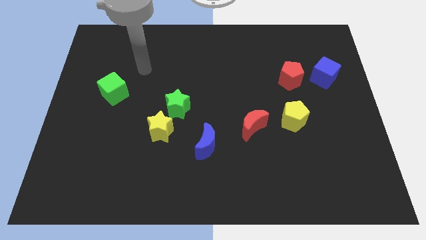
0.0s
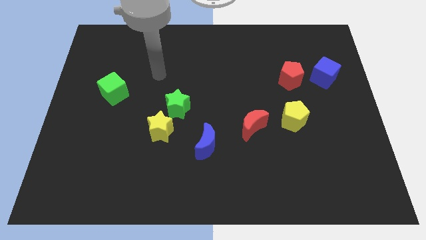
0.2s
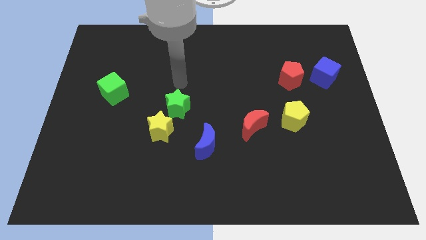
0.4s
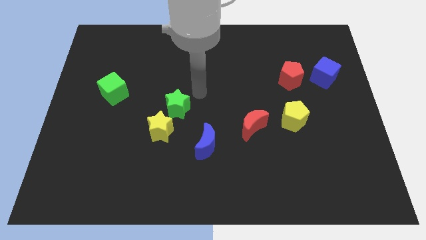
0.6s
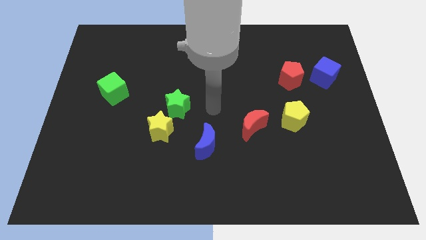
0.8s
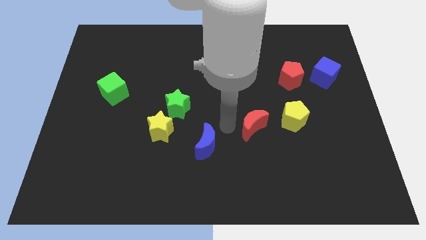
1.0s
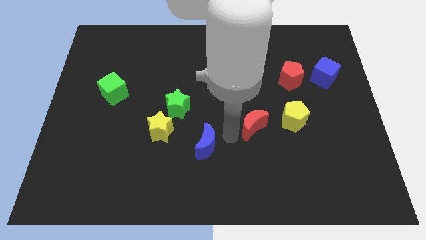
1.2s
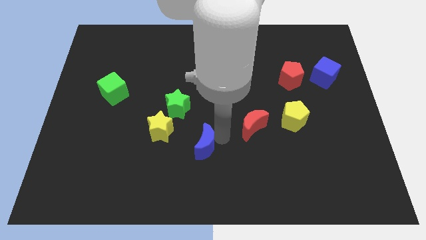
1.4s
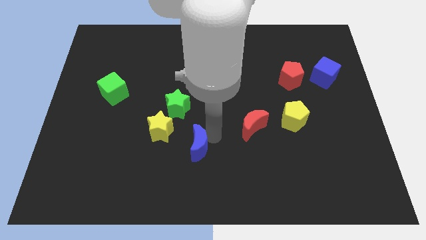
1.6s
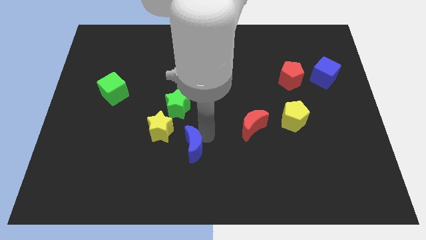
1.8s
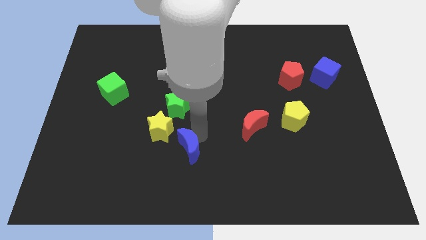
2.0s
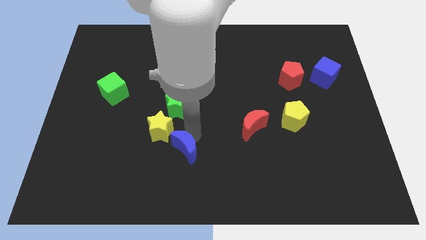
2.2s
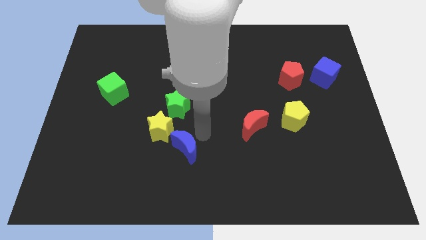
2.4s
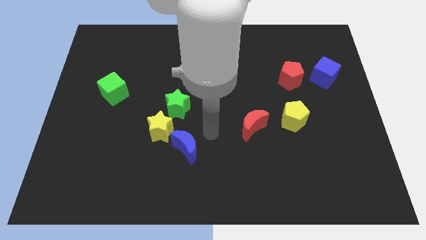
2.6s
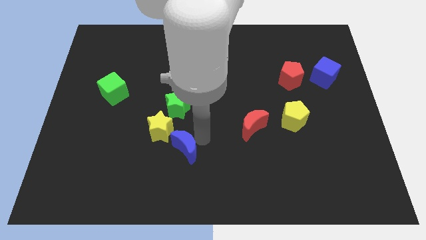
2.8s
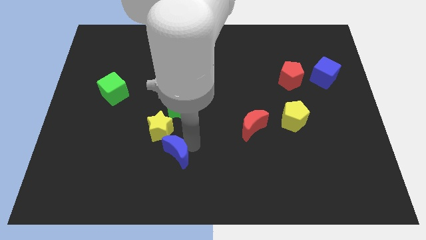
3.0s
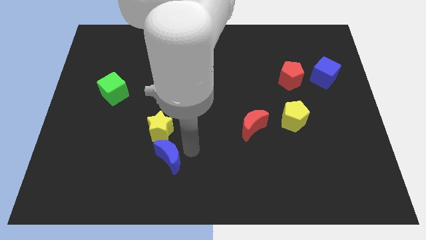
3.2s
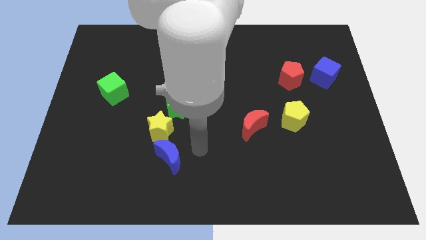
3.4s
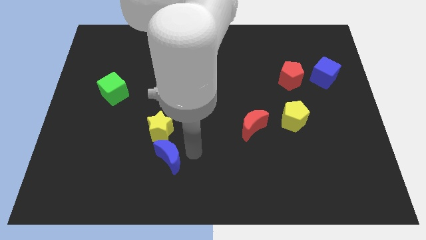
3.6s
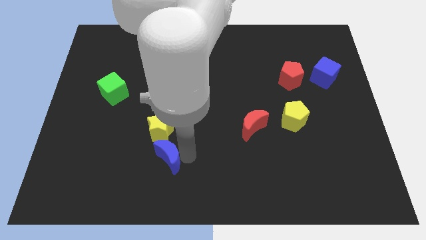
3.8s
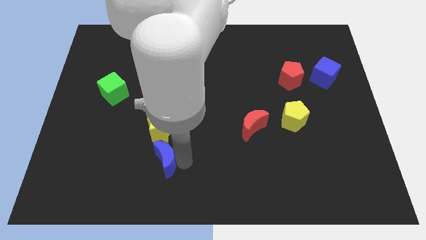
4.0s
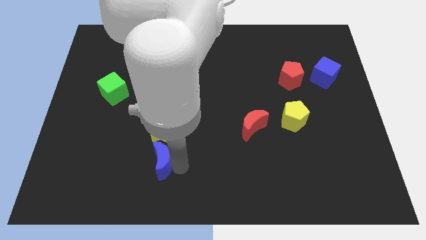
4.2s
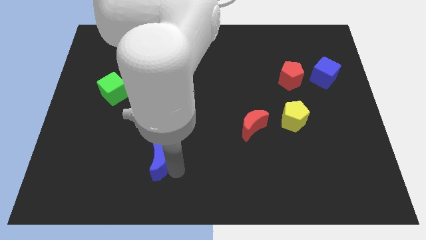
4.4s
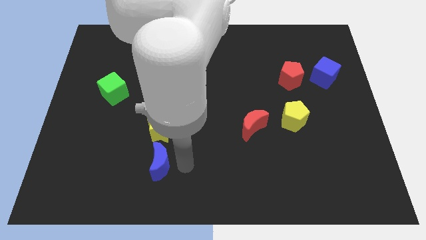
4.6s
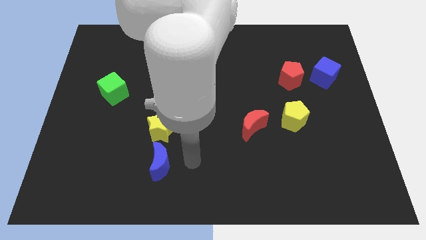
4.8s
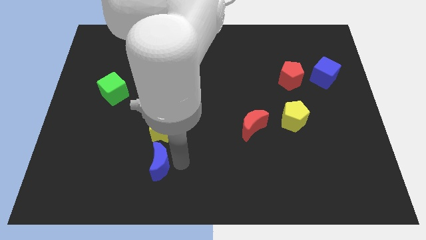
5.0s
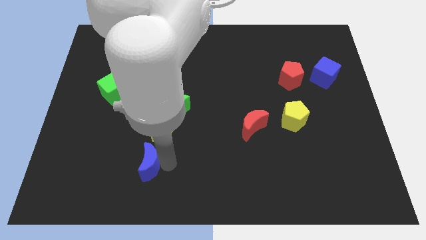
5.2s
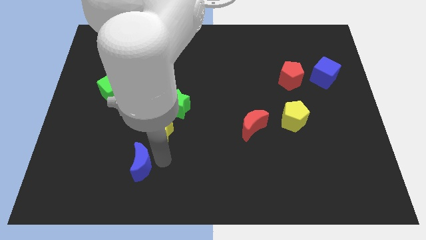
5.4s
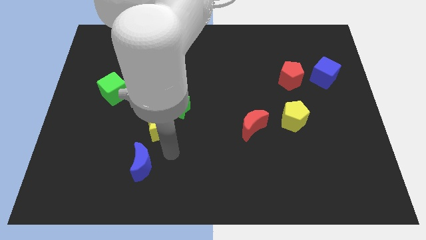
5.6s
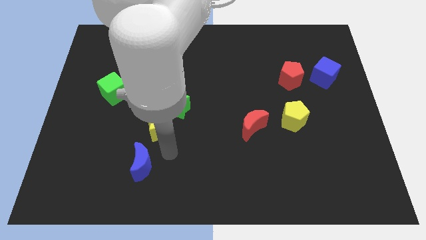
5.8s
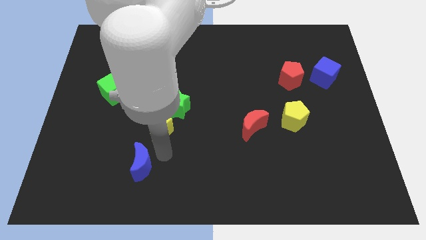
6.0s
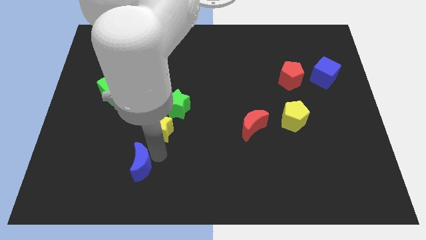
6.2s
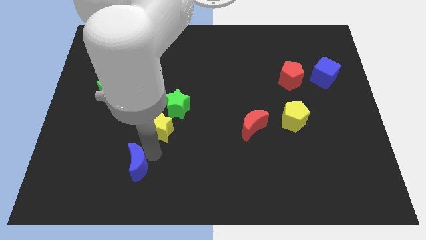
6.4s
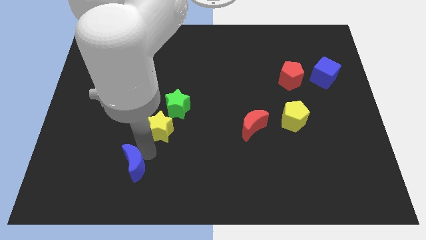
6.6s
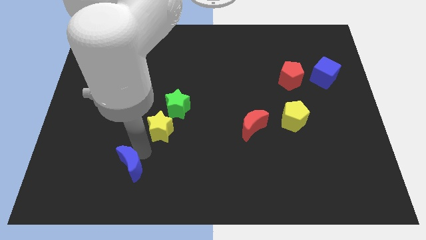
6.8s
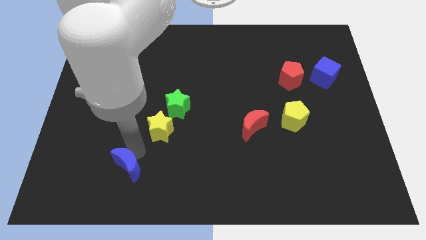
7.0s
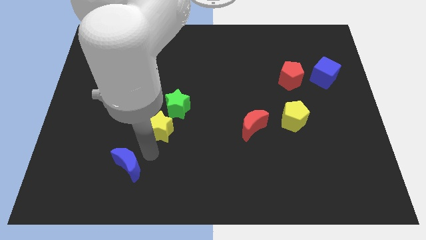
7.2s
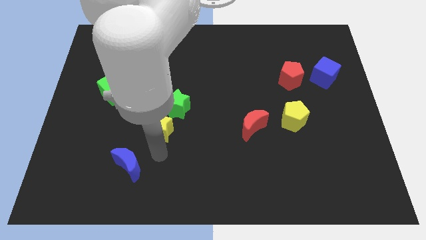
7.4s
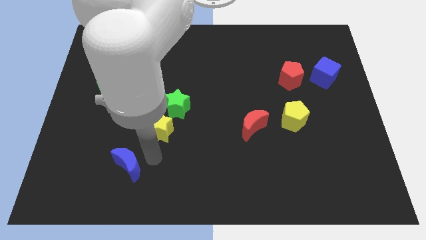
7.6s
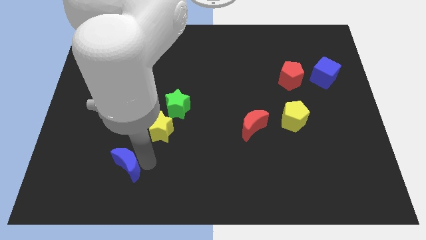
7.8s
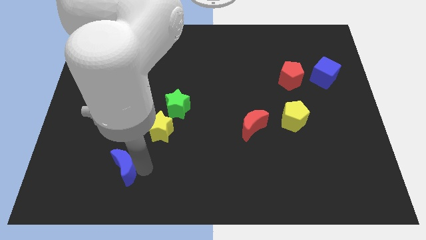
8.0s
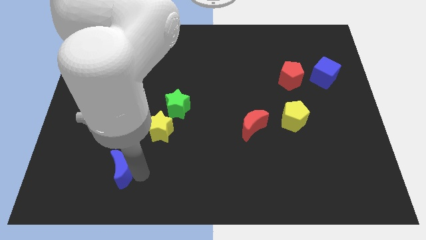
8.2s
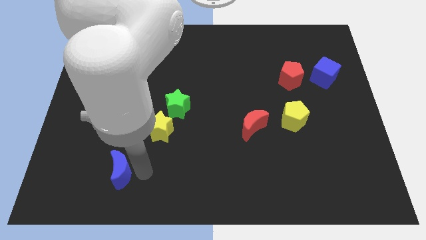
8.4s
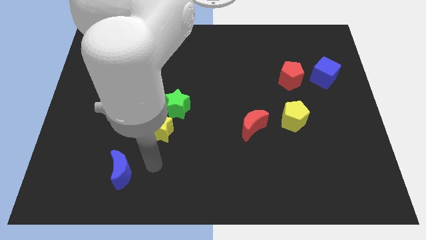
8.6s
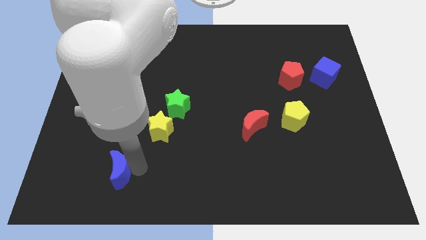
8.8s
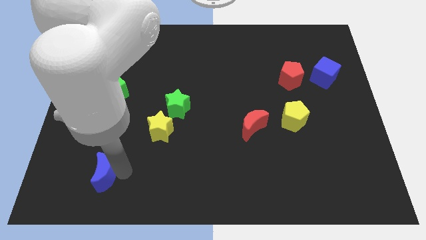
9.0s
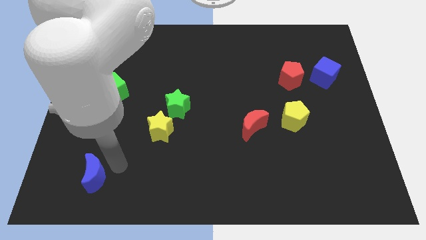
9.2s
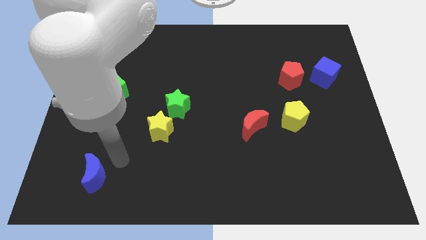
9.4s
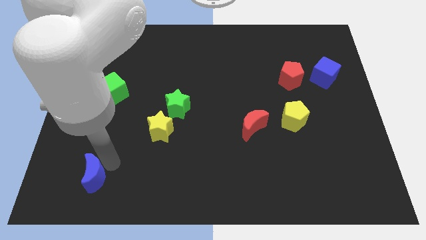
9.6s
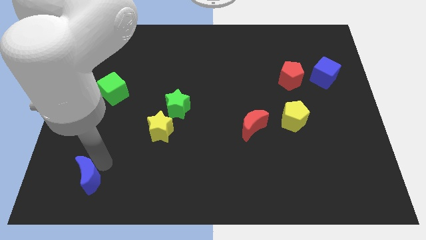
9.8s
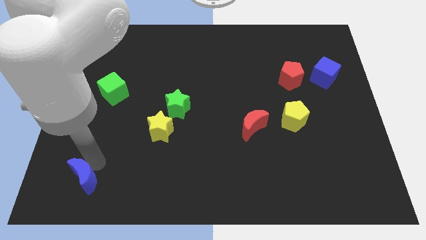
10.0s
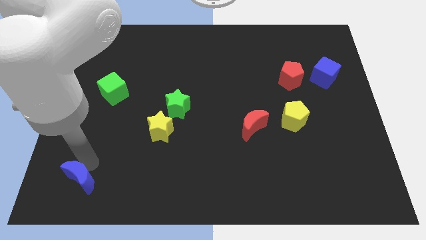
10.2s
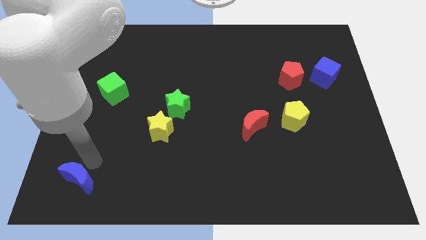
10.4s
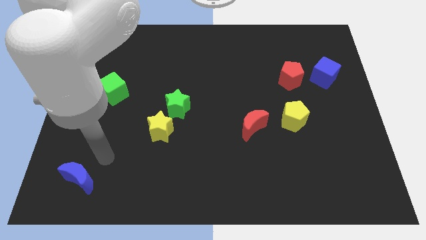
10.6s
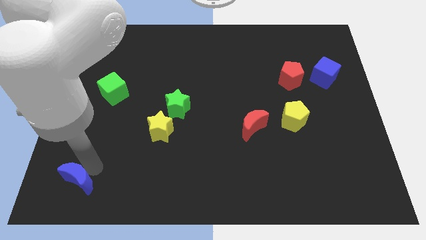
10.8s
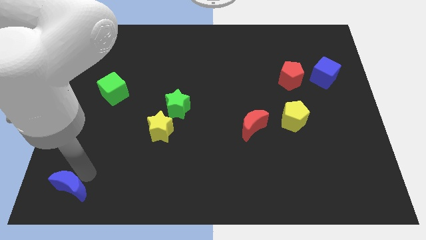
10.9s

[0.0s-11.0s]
move the blue moon to the bottom left of the board
